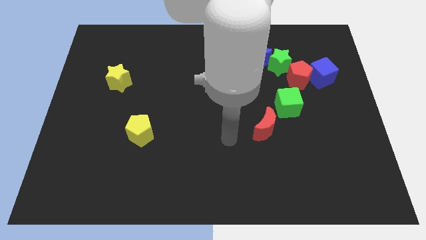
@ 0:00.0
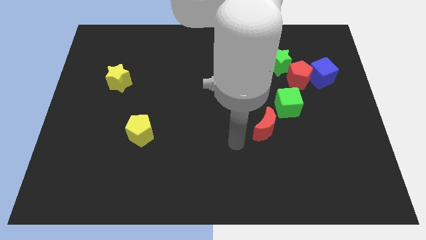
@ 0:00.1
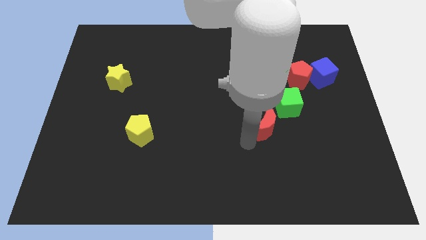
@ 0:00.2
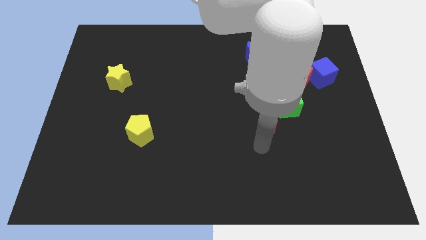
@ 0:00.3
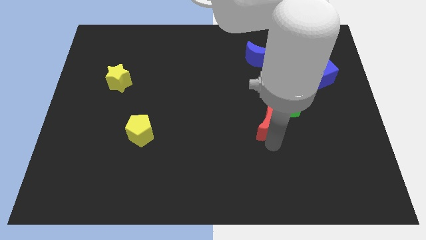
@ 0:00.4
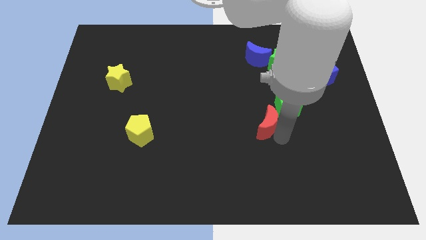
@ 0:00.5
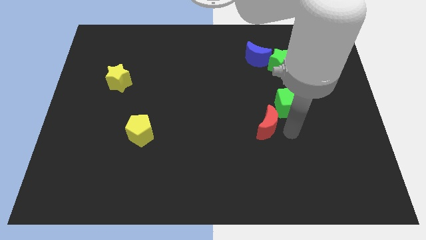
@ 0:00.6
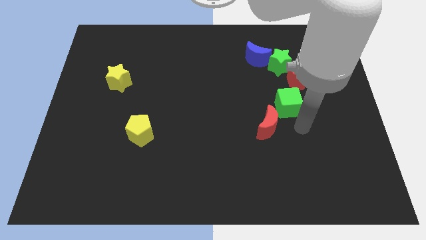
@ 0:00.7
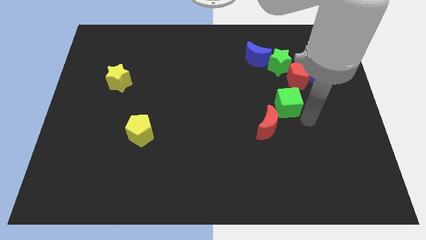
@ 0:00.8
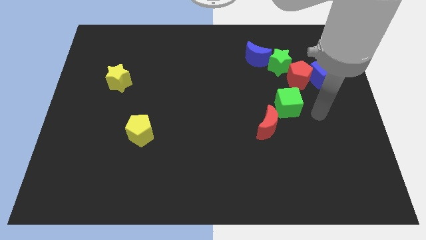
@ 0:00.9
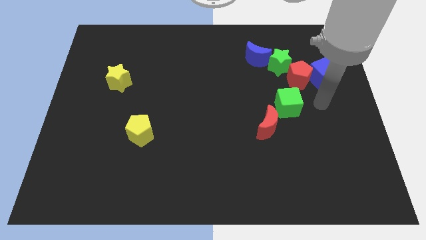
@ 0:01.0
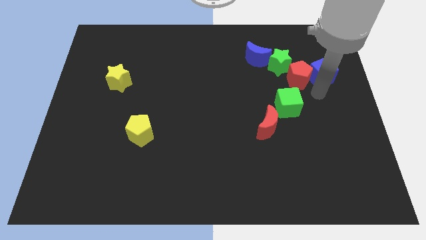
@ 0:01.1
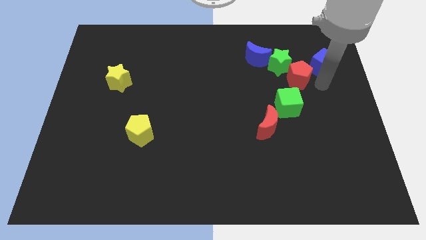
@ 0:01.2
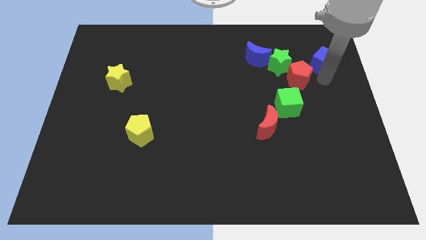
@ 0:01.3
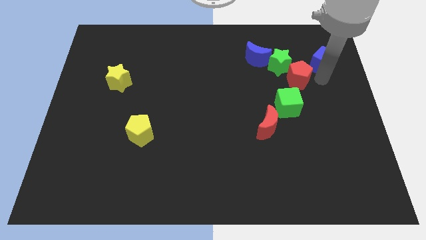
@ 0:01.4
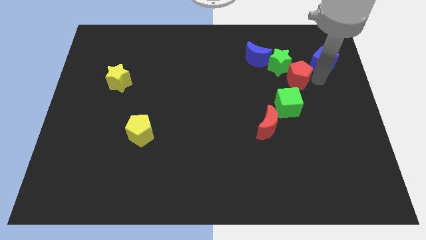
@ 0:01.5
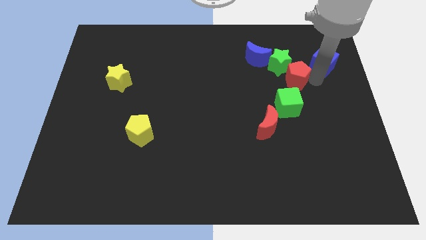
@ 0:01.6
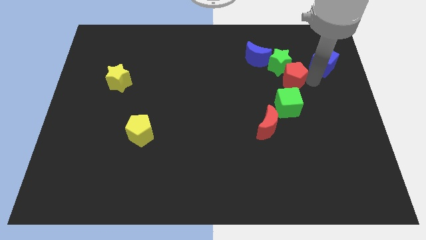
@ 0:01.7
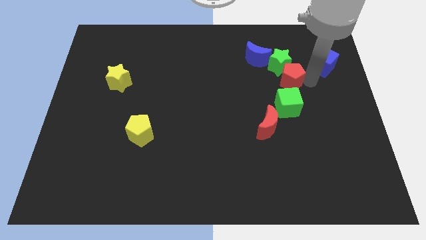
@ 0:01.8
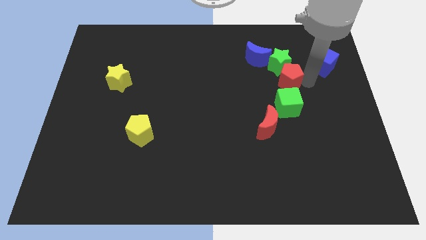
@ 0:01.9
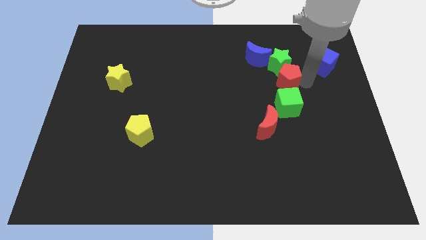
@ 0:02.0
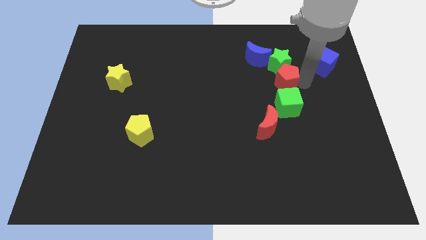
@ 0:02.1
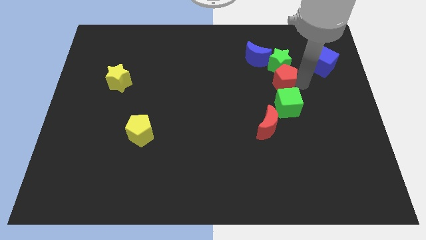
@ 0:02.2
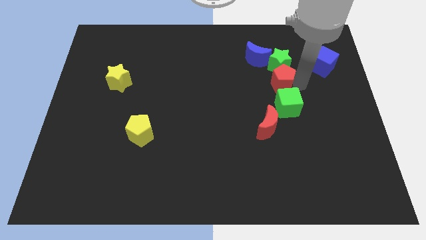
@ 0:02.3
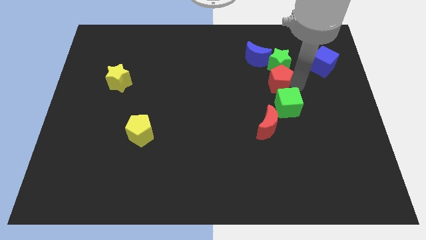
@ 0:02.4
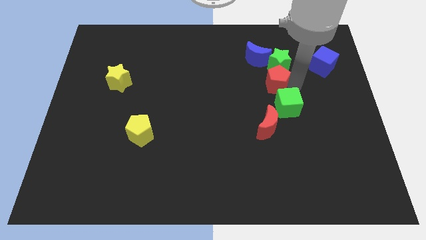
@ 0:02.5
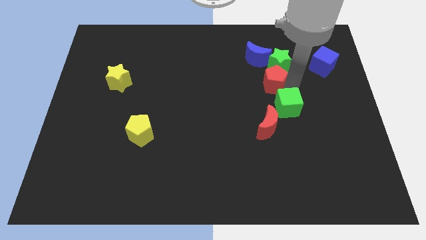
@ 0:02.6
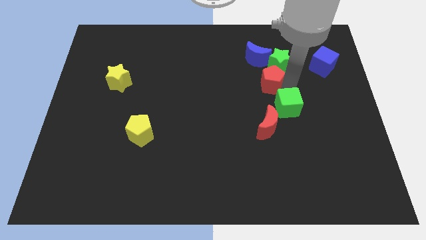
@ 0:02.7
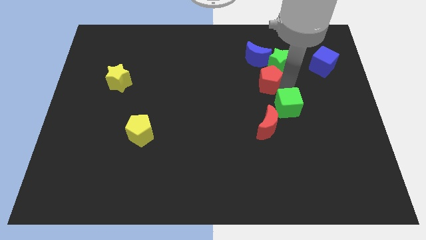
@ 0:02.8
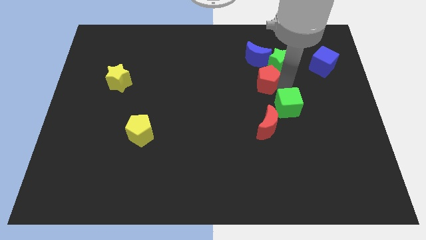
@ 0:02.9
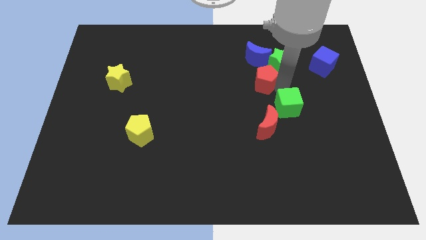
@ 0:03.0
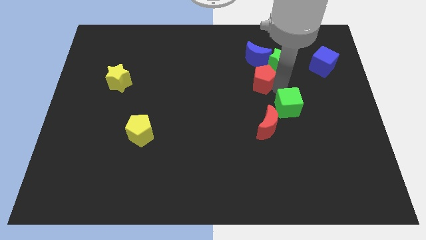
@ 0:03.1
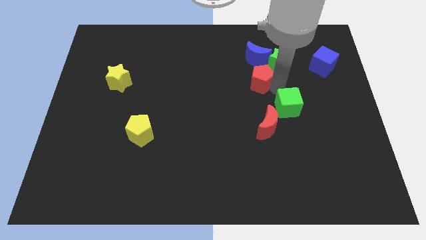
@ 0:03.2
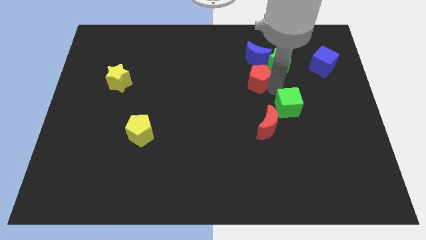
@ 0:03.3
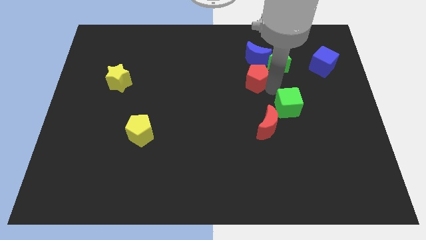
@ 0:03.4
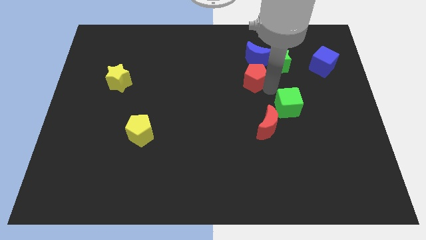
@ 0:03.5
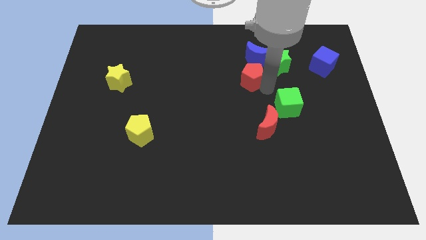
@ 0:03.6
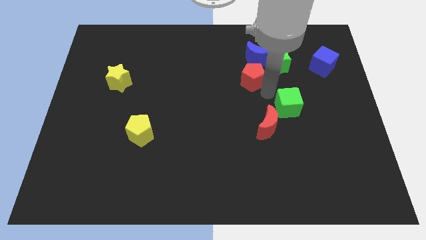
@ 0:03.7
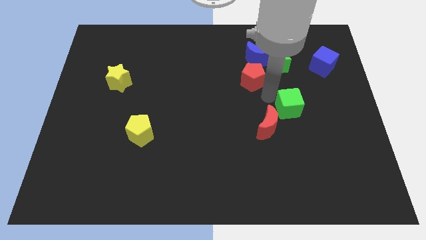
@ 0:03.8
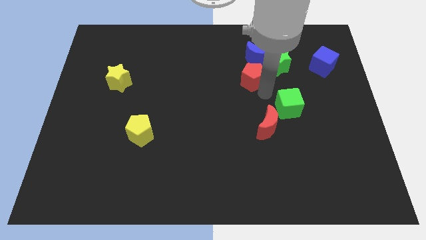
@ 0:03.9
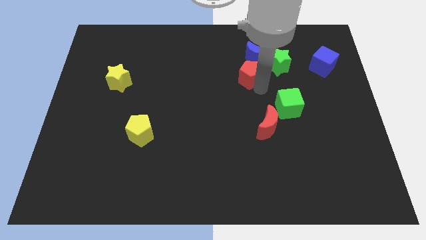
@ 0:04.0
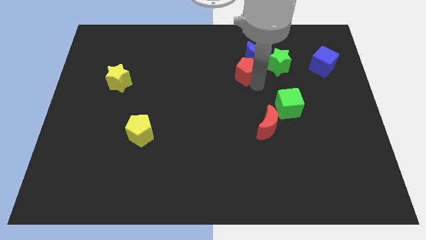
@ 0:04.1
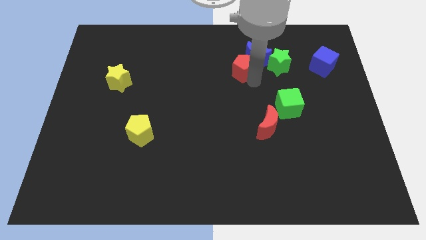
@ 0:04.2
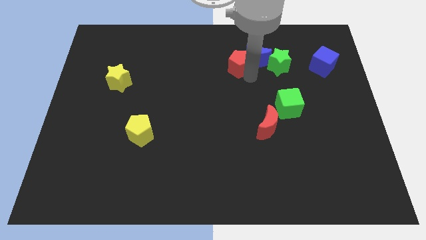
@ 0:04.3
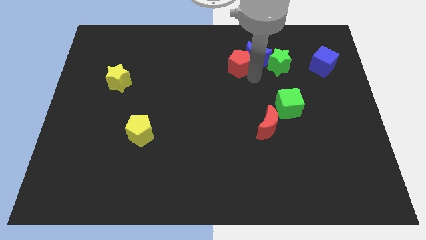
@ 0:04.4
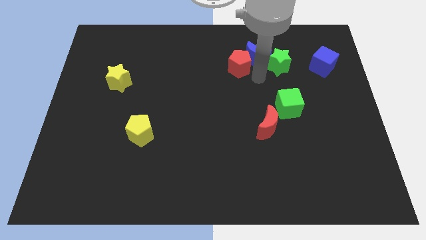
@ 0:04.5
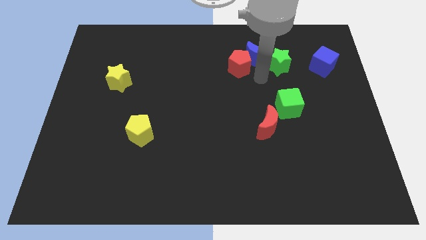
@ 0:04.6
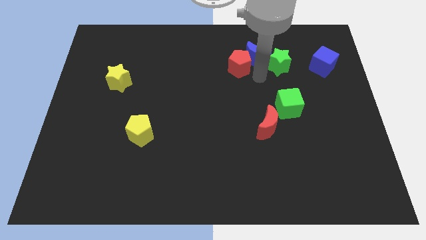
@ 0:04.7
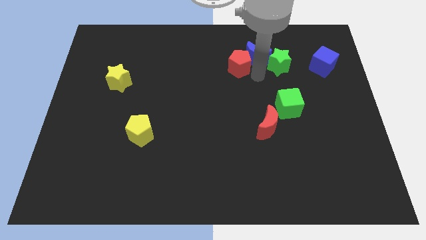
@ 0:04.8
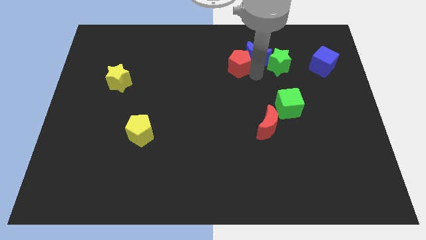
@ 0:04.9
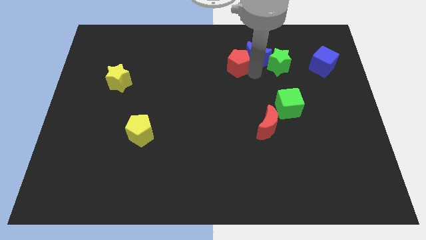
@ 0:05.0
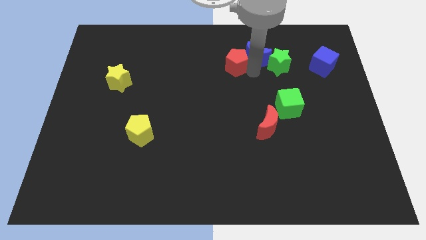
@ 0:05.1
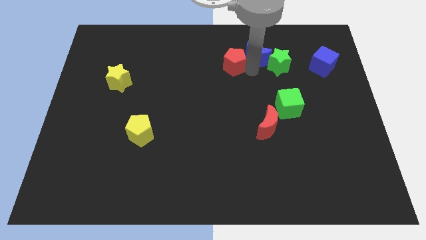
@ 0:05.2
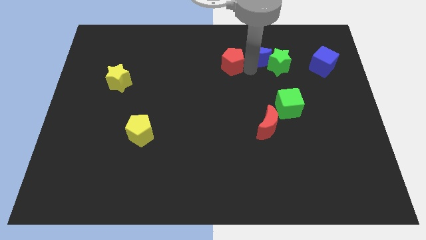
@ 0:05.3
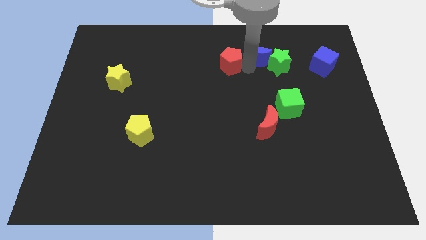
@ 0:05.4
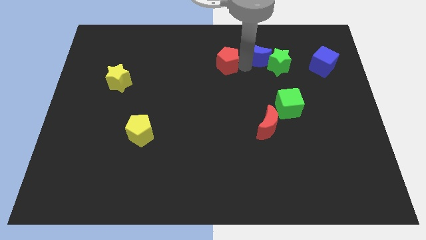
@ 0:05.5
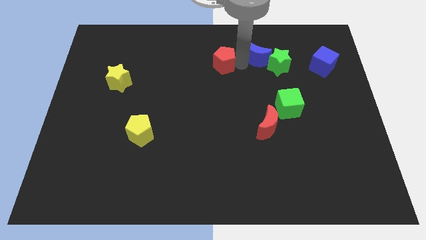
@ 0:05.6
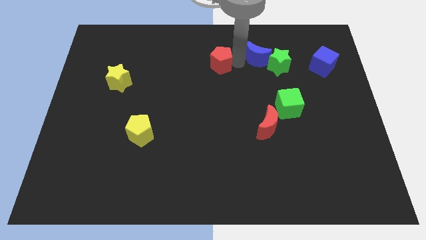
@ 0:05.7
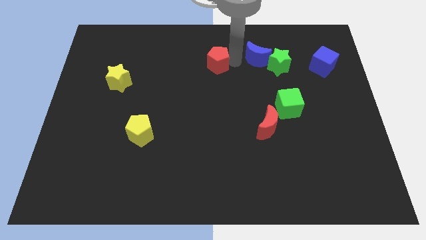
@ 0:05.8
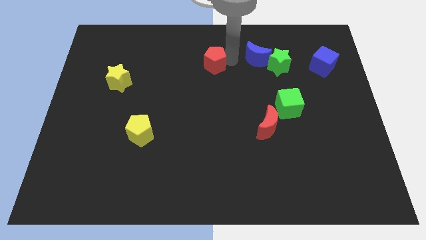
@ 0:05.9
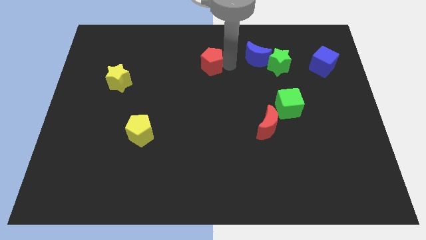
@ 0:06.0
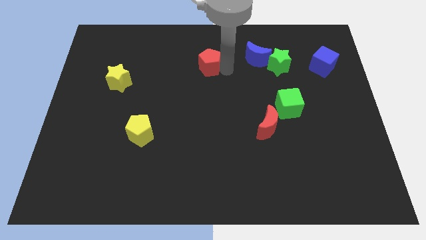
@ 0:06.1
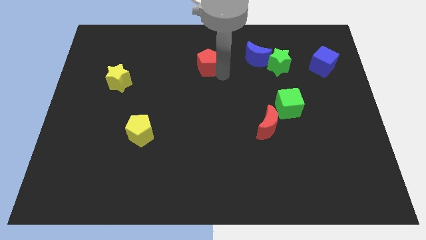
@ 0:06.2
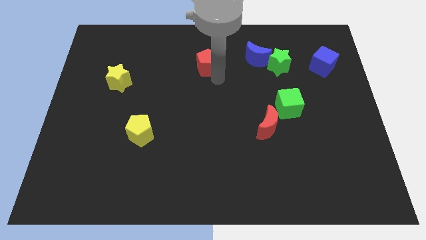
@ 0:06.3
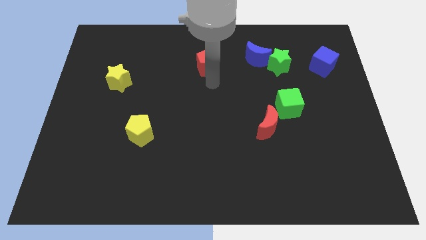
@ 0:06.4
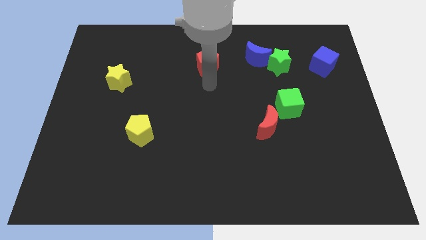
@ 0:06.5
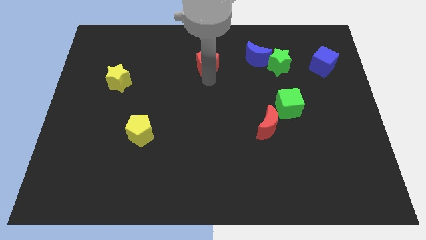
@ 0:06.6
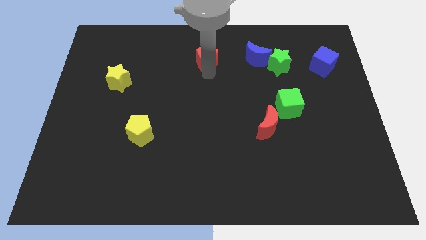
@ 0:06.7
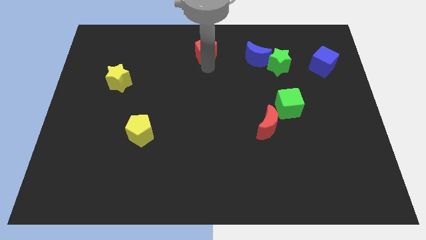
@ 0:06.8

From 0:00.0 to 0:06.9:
push the red pentagon to the towards your base
